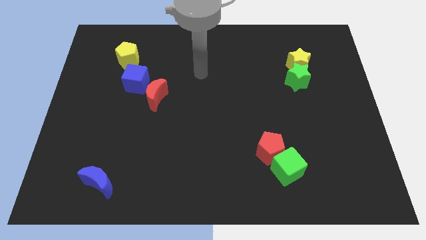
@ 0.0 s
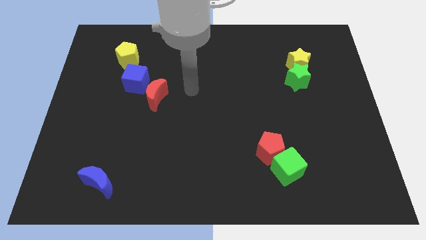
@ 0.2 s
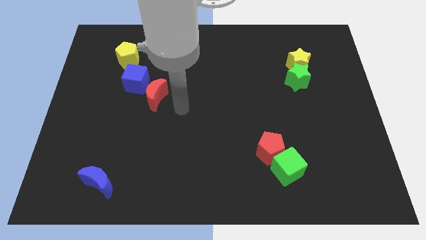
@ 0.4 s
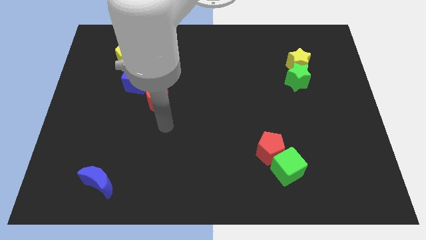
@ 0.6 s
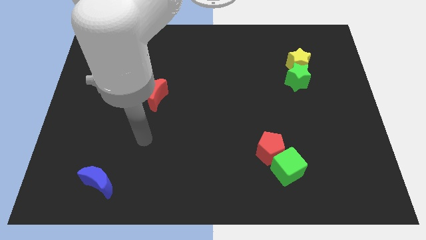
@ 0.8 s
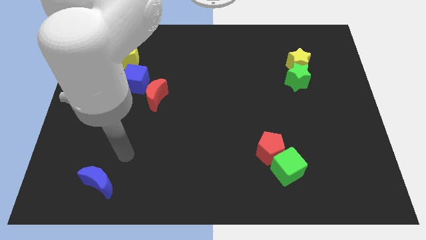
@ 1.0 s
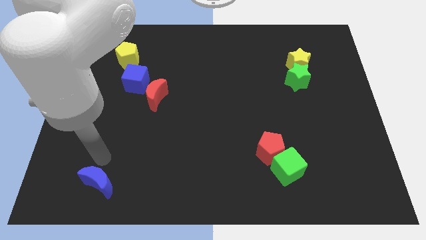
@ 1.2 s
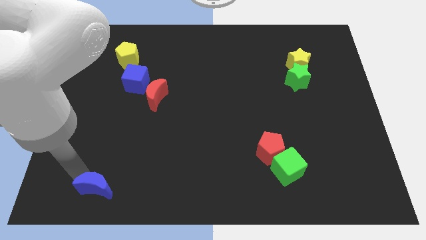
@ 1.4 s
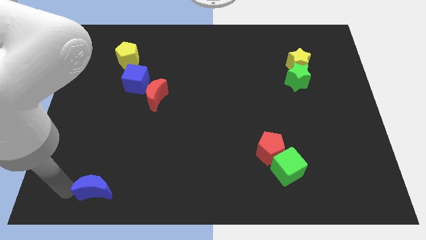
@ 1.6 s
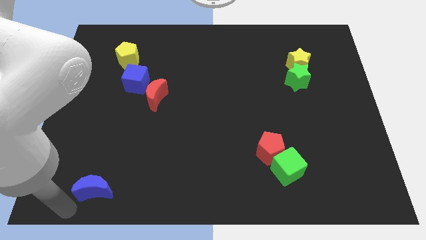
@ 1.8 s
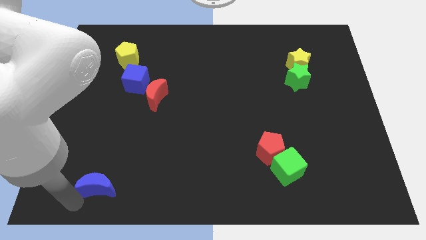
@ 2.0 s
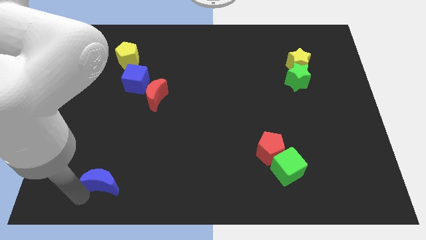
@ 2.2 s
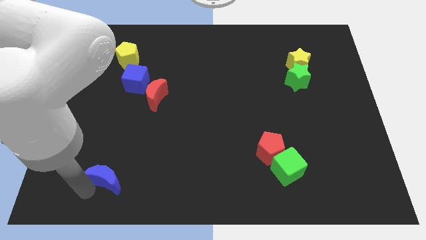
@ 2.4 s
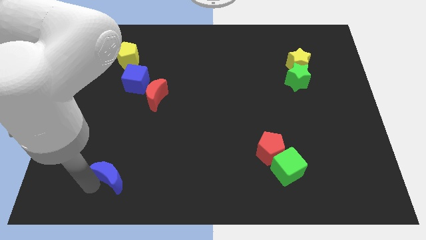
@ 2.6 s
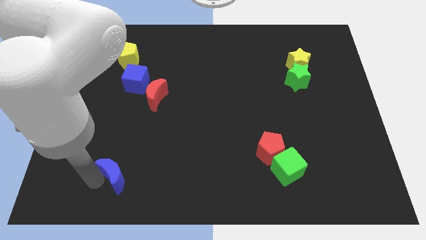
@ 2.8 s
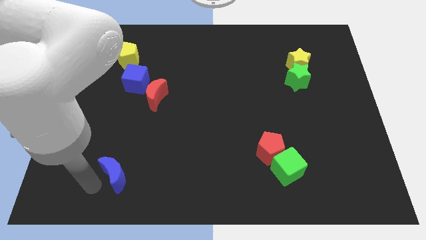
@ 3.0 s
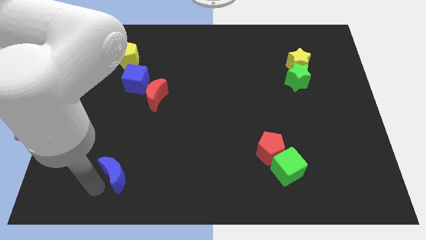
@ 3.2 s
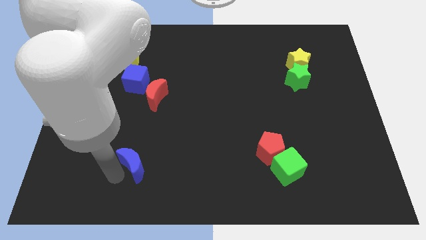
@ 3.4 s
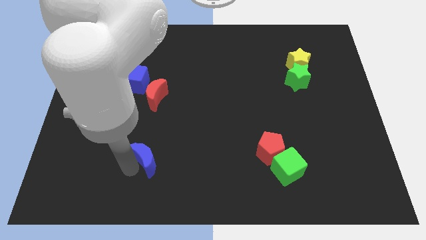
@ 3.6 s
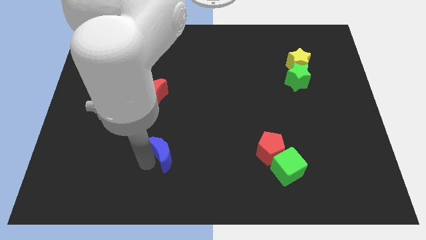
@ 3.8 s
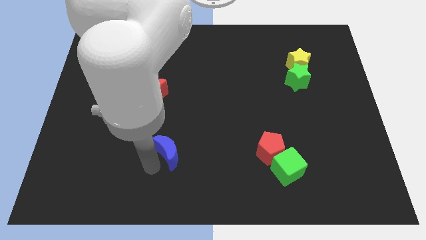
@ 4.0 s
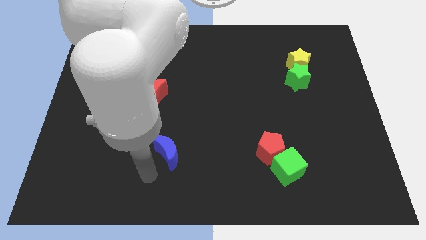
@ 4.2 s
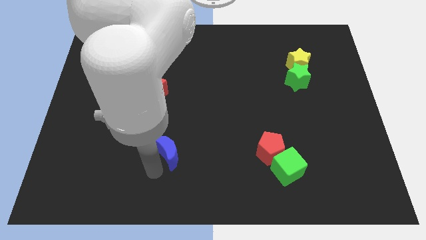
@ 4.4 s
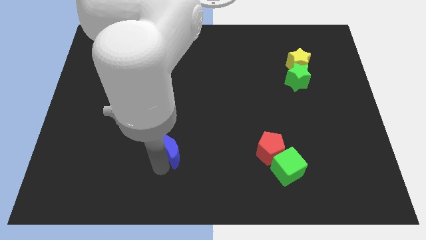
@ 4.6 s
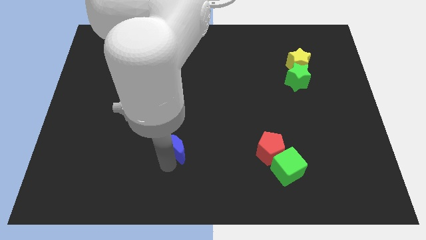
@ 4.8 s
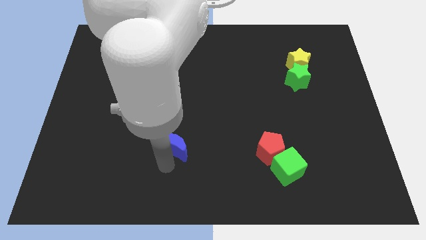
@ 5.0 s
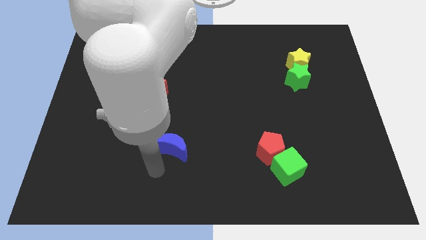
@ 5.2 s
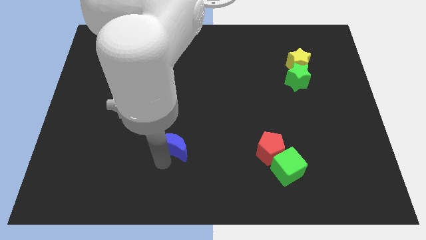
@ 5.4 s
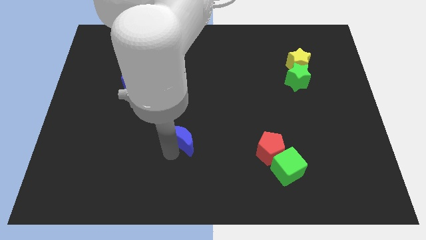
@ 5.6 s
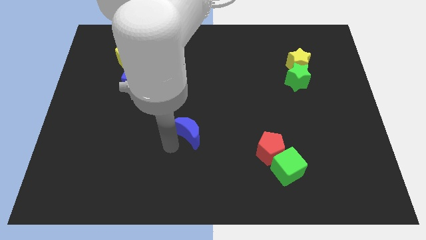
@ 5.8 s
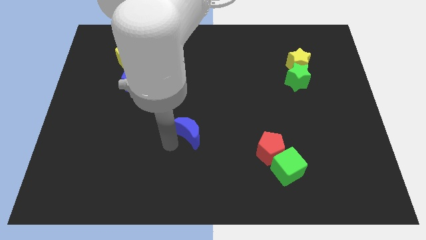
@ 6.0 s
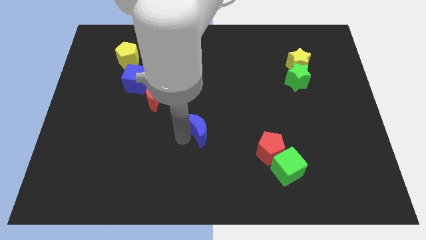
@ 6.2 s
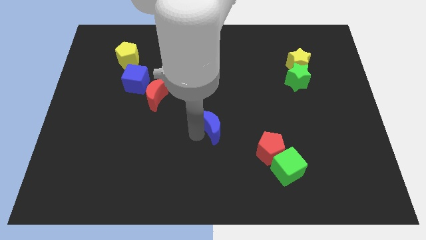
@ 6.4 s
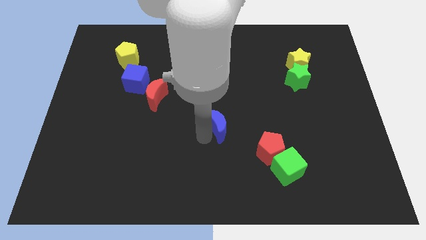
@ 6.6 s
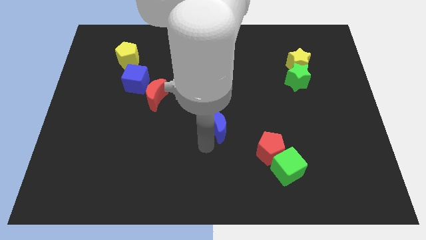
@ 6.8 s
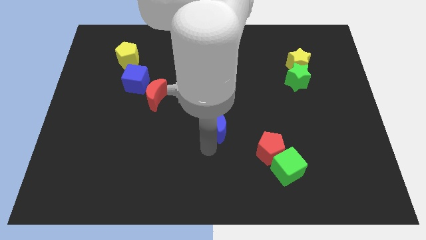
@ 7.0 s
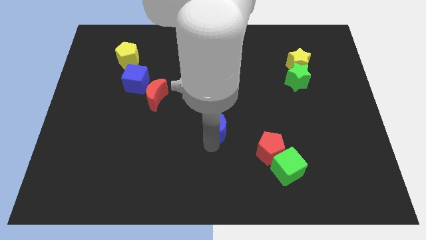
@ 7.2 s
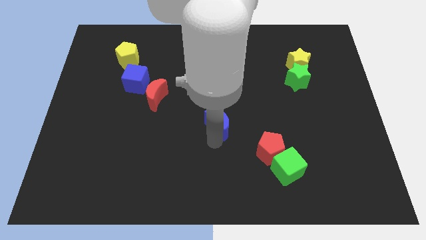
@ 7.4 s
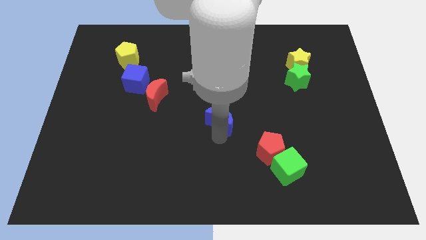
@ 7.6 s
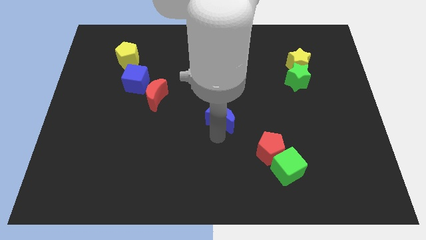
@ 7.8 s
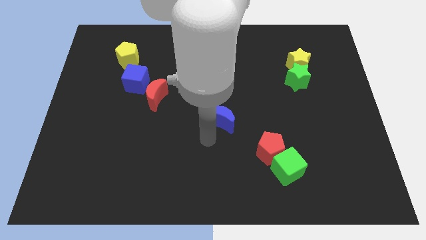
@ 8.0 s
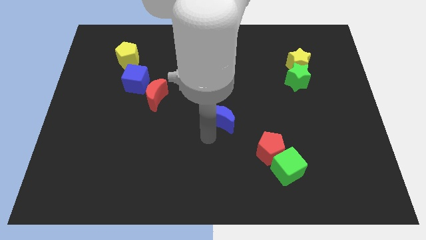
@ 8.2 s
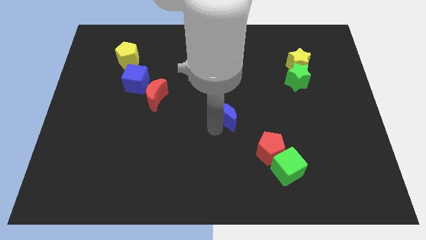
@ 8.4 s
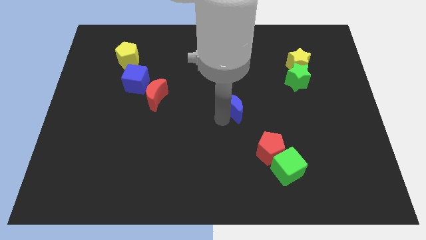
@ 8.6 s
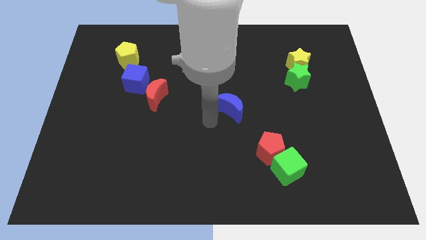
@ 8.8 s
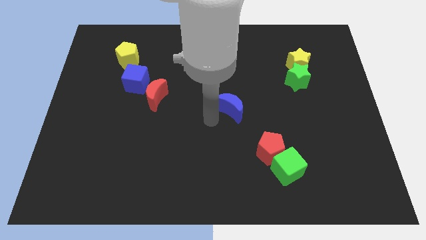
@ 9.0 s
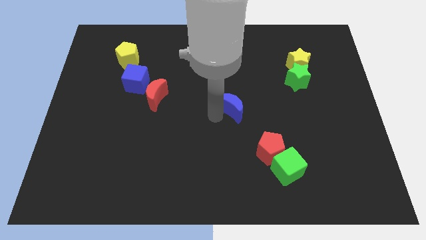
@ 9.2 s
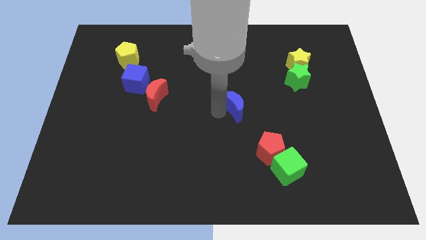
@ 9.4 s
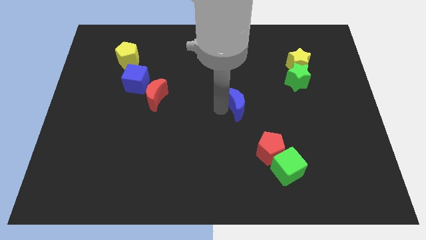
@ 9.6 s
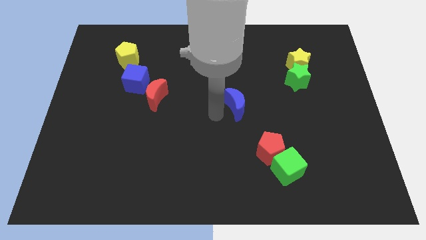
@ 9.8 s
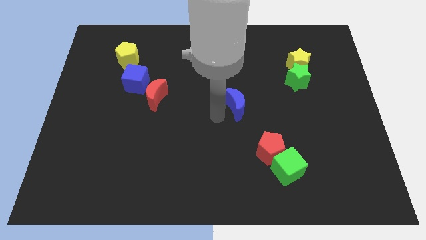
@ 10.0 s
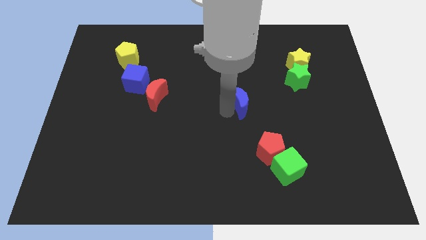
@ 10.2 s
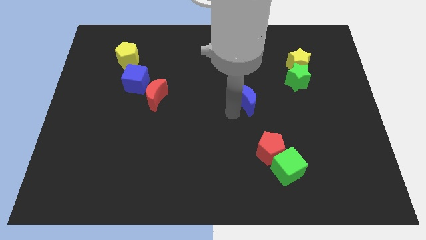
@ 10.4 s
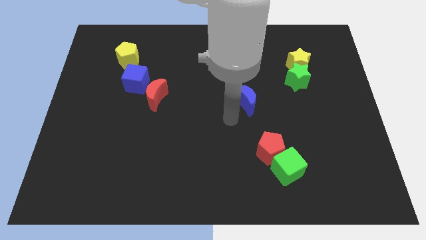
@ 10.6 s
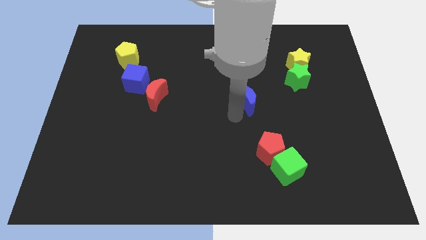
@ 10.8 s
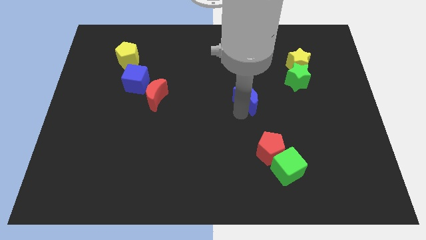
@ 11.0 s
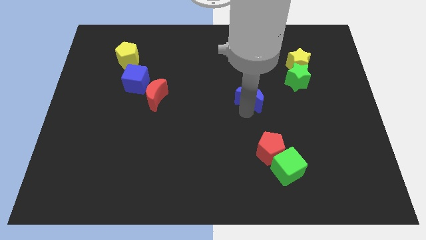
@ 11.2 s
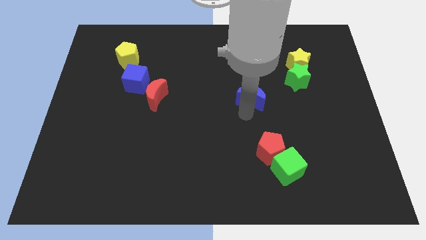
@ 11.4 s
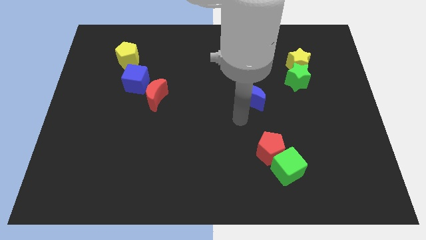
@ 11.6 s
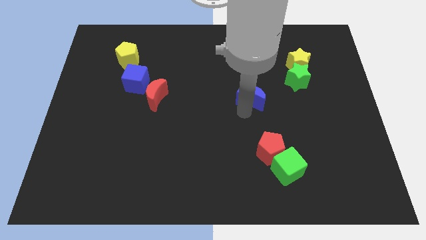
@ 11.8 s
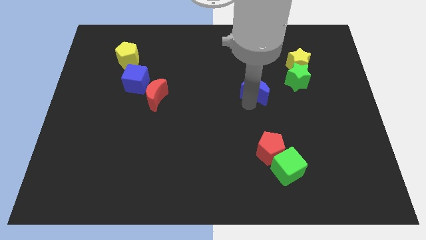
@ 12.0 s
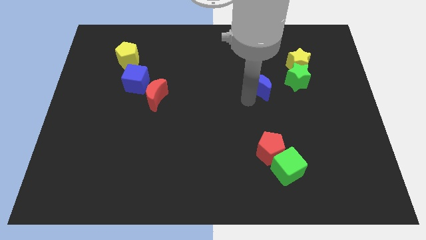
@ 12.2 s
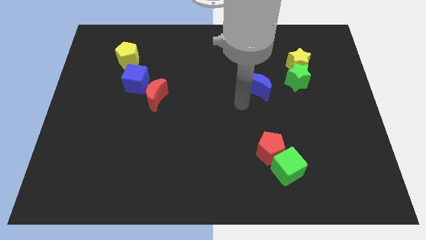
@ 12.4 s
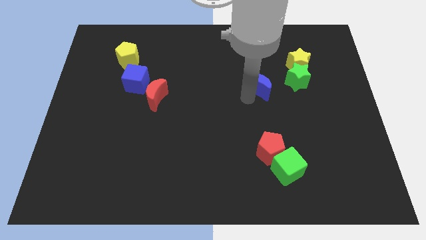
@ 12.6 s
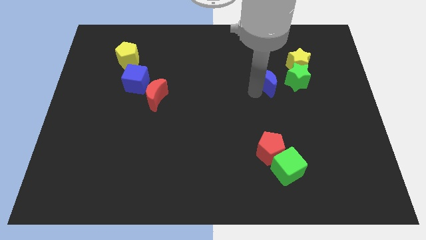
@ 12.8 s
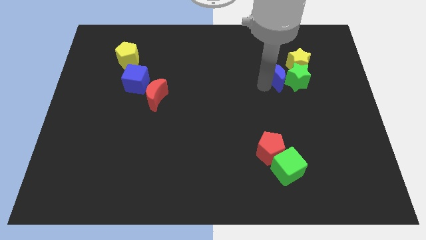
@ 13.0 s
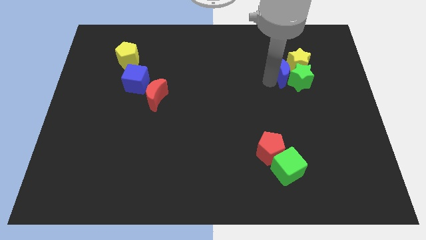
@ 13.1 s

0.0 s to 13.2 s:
put the blue moon towards the yellow star

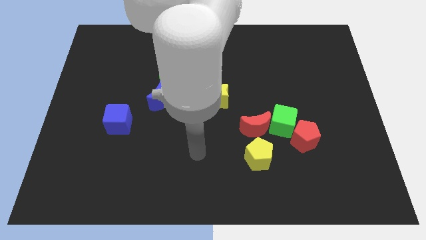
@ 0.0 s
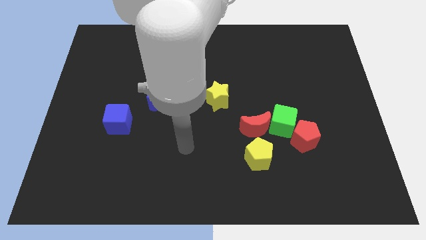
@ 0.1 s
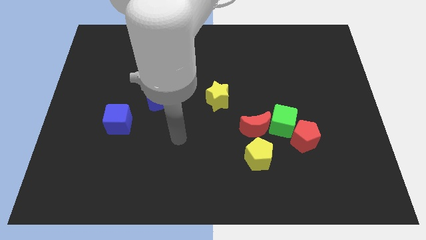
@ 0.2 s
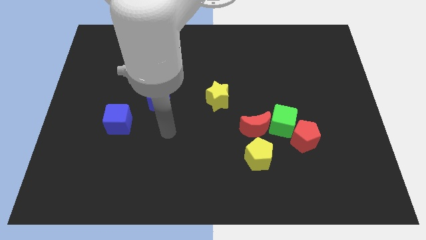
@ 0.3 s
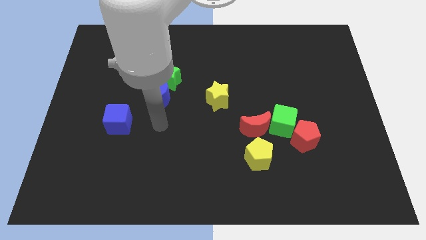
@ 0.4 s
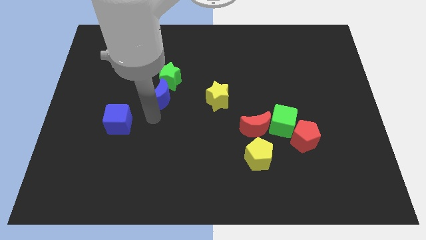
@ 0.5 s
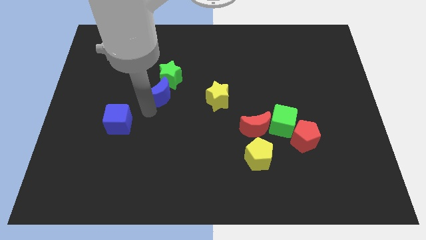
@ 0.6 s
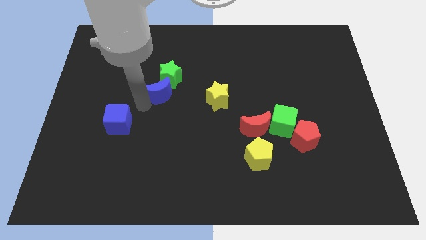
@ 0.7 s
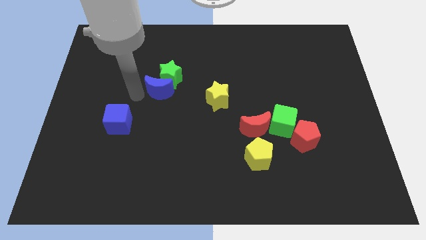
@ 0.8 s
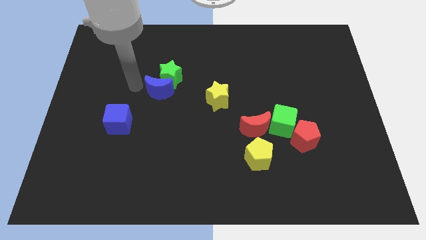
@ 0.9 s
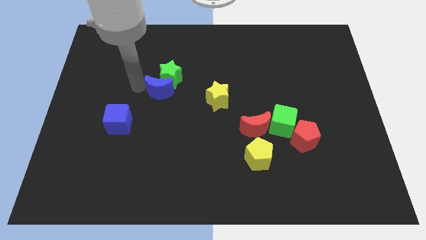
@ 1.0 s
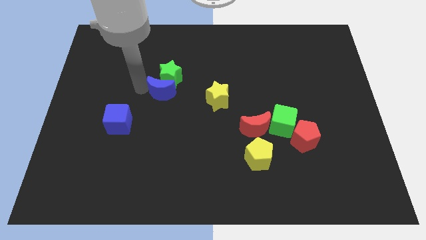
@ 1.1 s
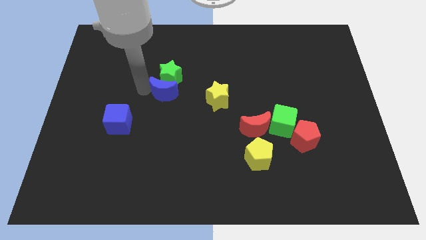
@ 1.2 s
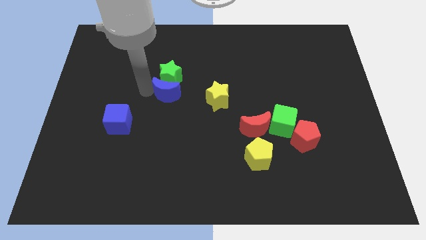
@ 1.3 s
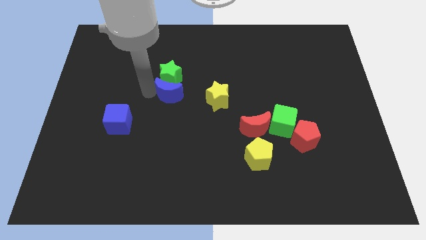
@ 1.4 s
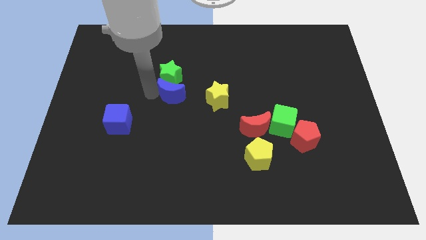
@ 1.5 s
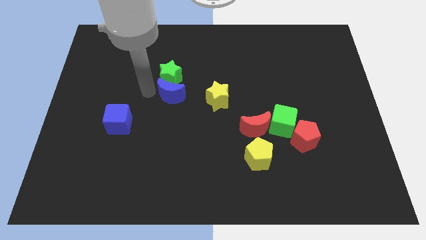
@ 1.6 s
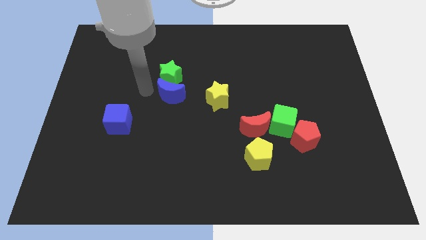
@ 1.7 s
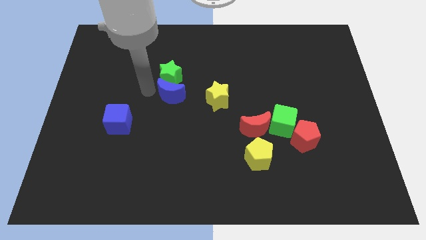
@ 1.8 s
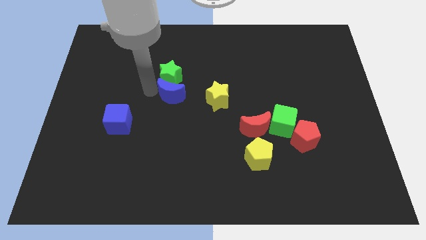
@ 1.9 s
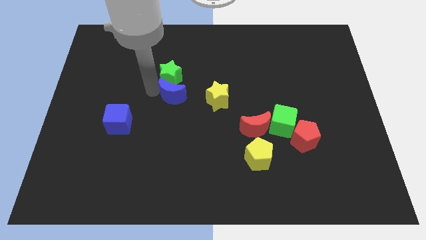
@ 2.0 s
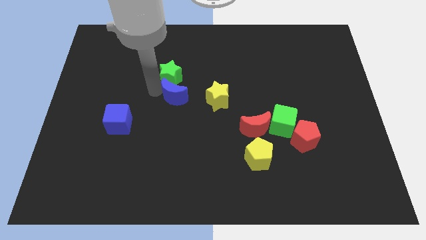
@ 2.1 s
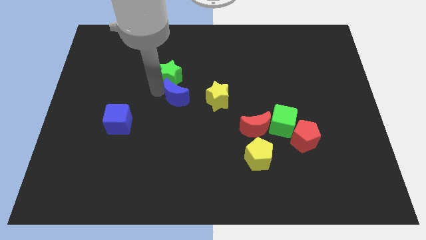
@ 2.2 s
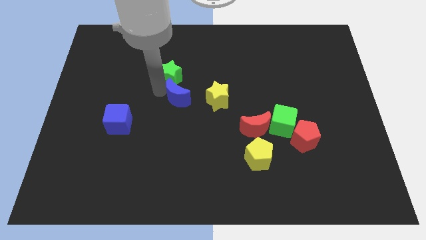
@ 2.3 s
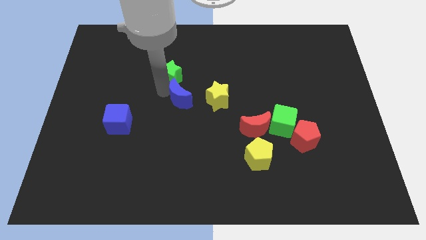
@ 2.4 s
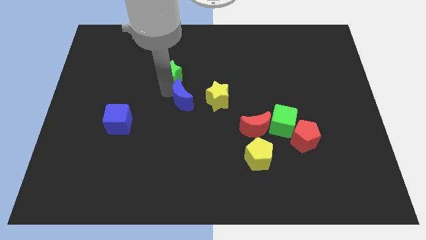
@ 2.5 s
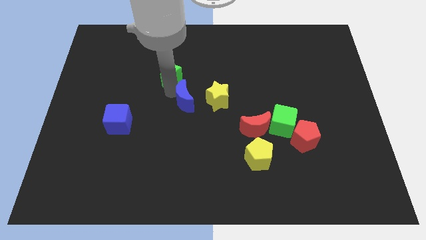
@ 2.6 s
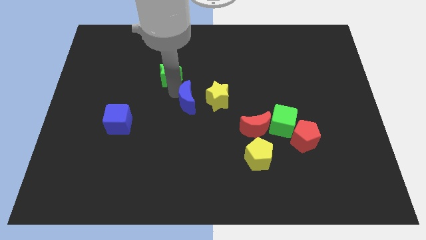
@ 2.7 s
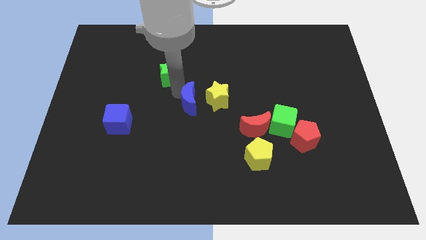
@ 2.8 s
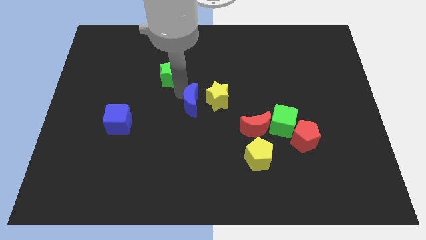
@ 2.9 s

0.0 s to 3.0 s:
slide the blue moon to the yellow star
